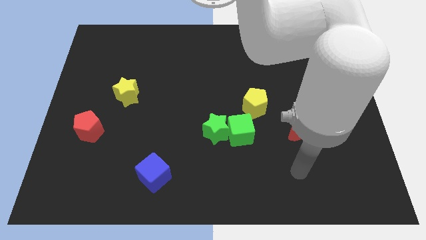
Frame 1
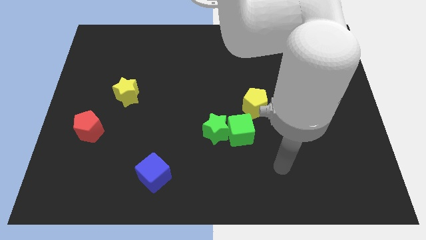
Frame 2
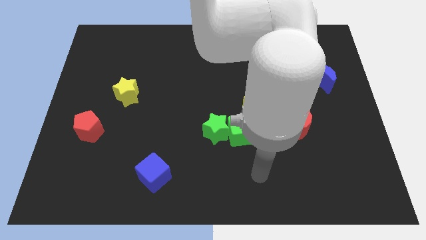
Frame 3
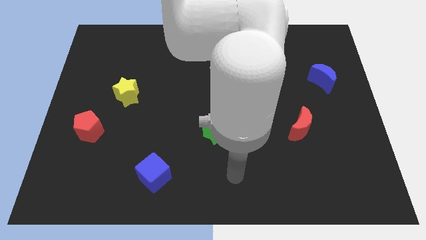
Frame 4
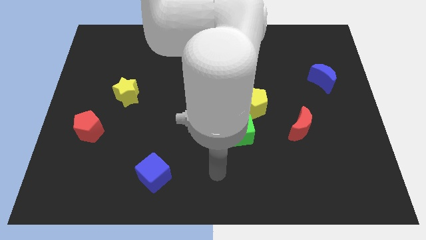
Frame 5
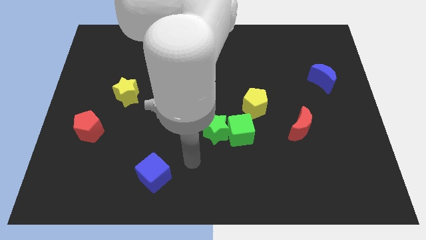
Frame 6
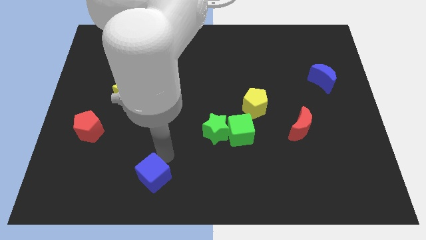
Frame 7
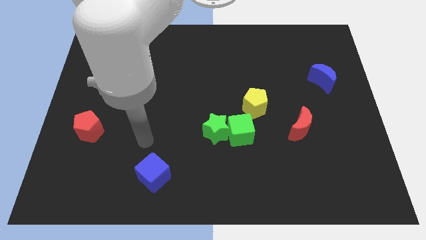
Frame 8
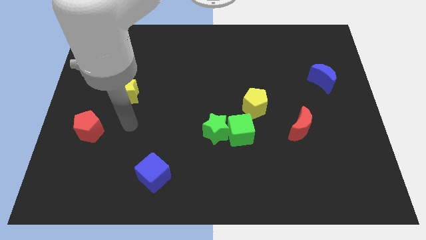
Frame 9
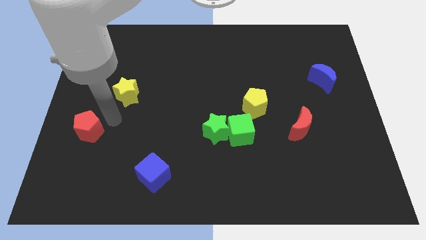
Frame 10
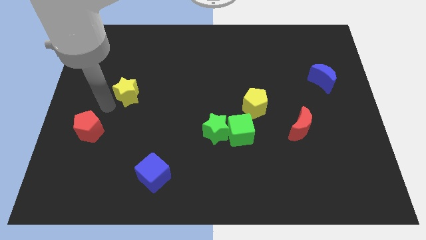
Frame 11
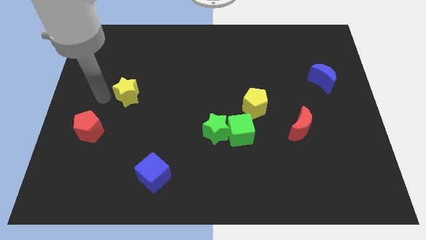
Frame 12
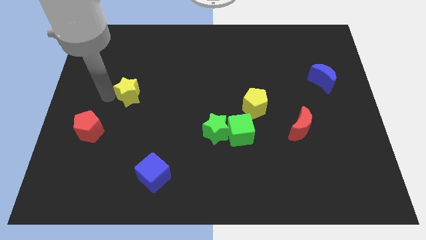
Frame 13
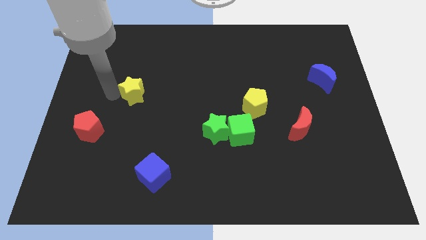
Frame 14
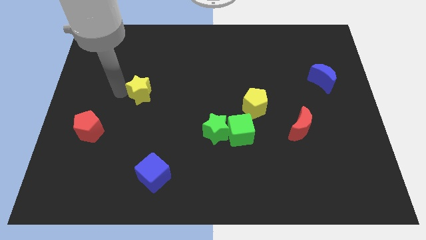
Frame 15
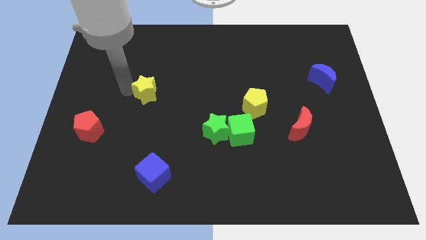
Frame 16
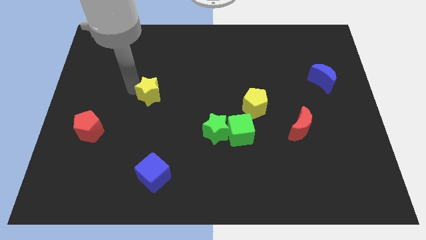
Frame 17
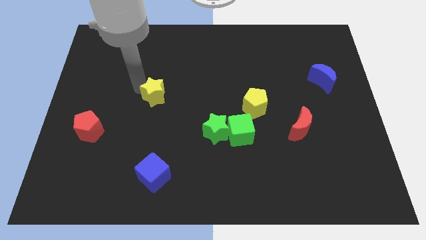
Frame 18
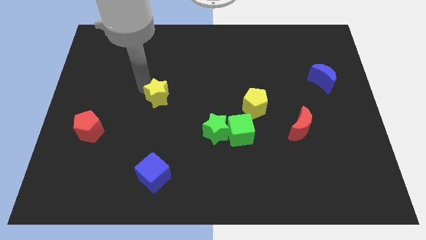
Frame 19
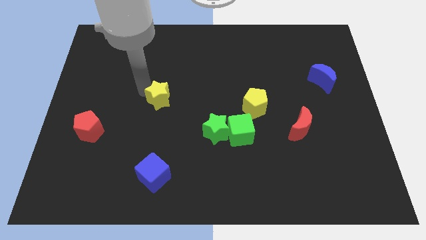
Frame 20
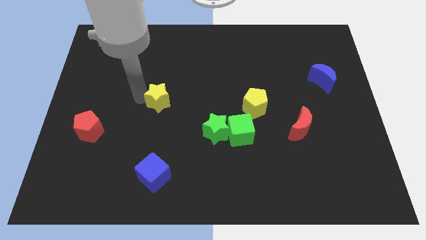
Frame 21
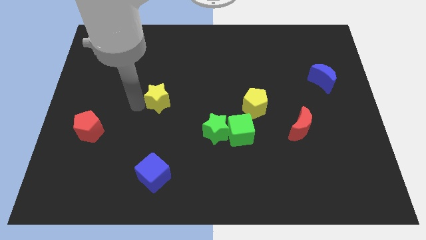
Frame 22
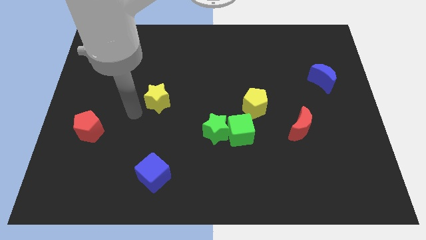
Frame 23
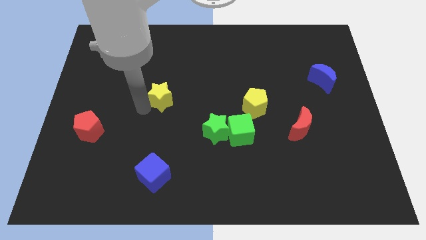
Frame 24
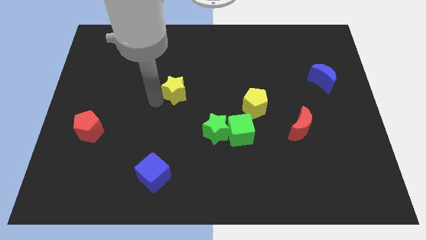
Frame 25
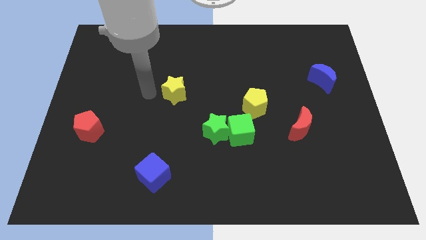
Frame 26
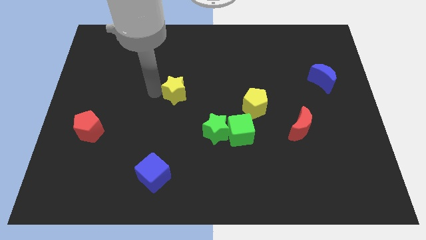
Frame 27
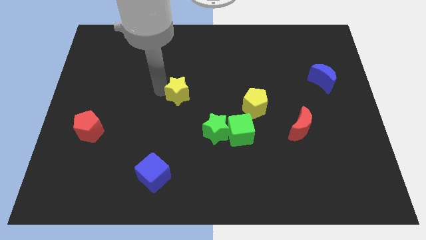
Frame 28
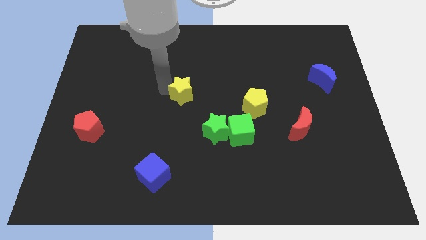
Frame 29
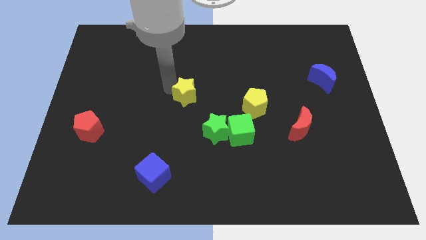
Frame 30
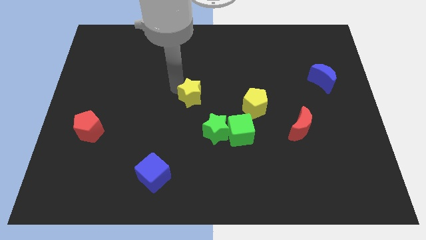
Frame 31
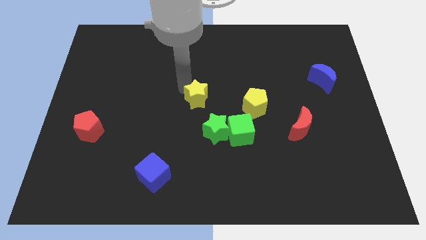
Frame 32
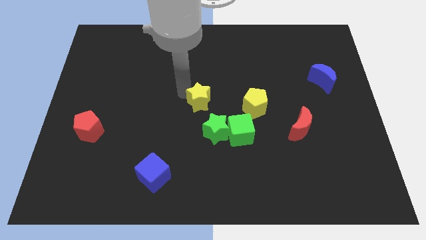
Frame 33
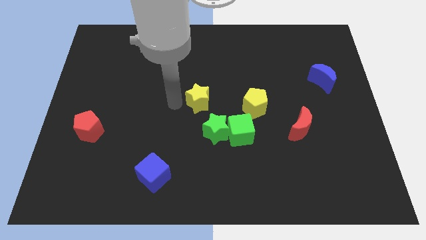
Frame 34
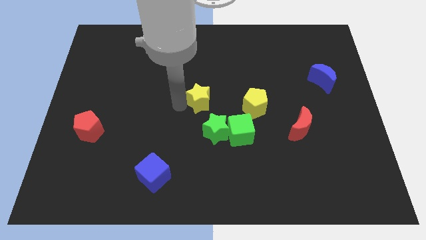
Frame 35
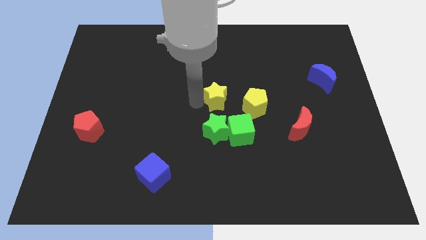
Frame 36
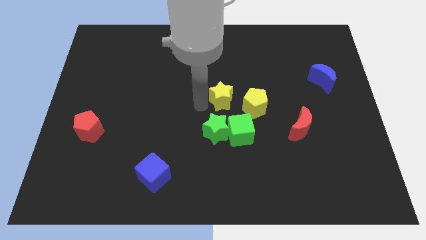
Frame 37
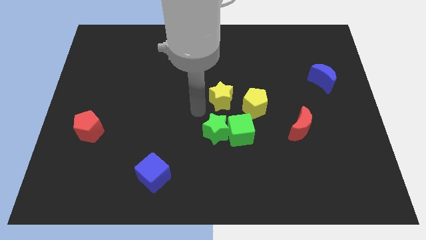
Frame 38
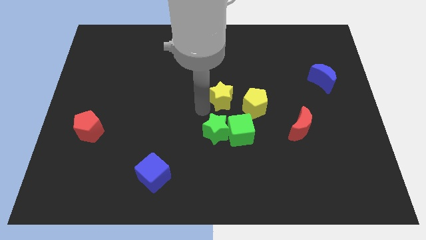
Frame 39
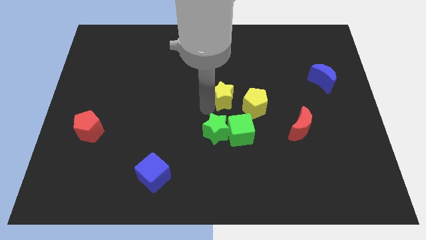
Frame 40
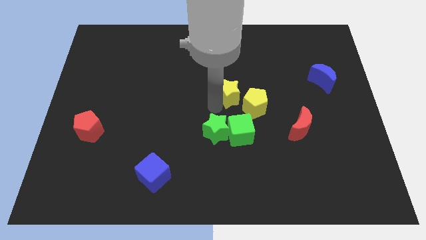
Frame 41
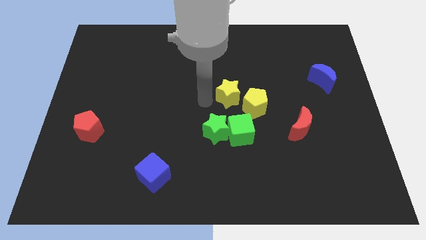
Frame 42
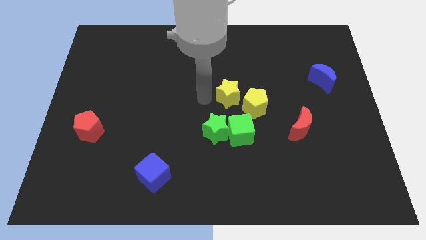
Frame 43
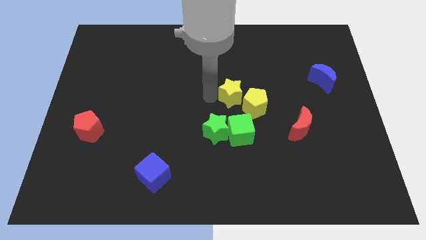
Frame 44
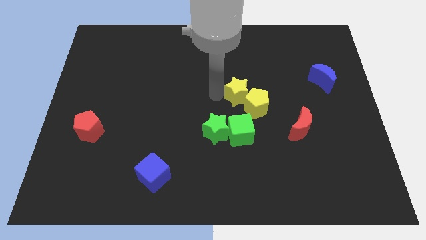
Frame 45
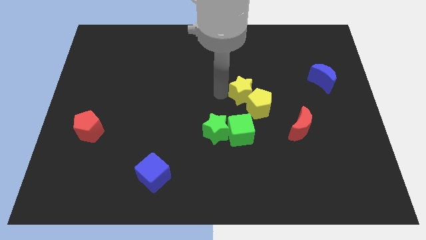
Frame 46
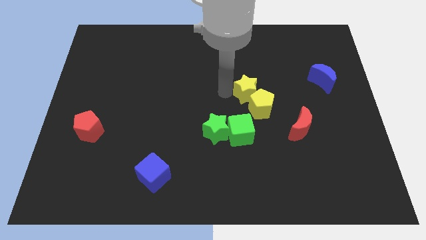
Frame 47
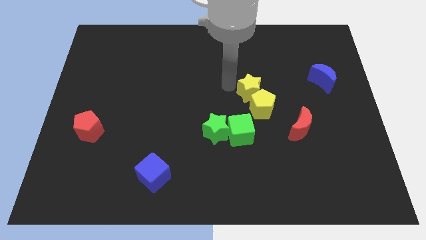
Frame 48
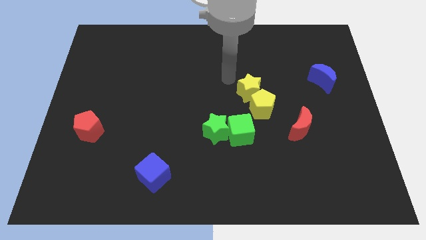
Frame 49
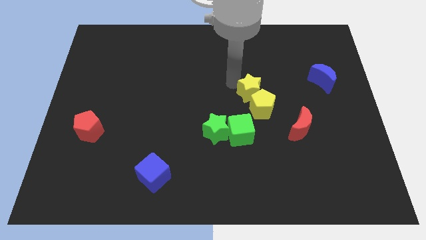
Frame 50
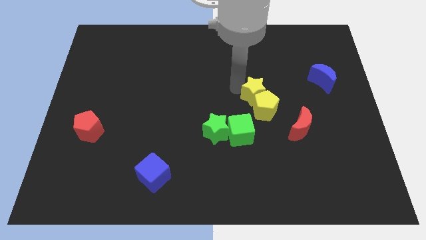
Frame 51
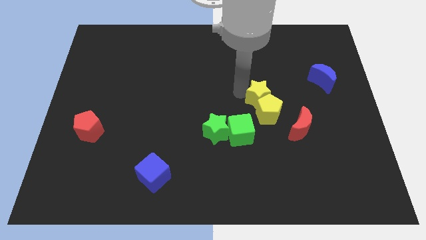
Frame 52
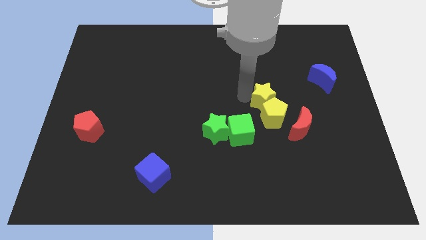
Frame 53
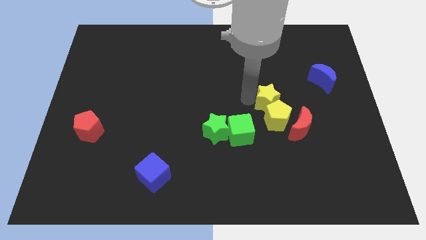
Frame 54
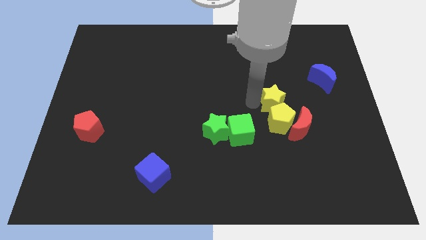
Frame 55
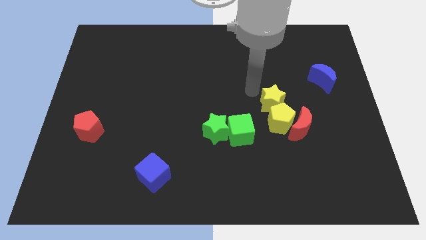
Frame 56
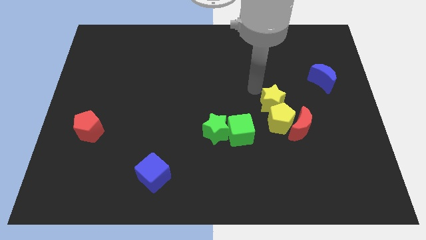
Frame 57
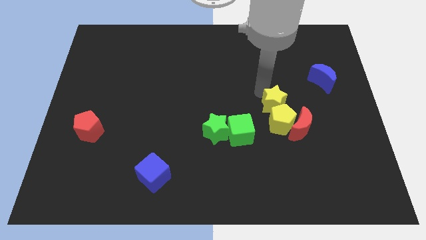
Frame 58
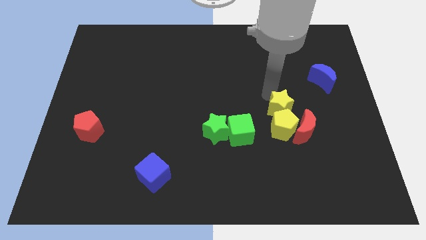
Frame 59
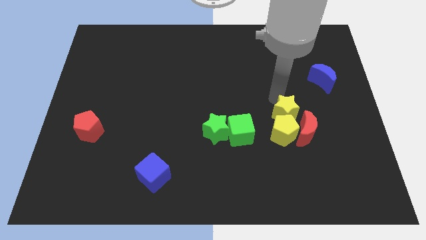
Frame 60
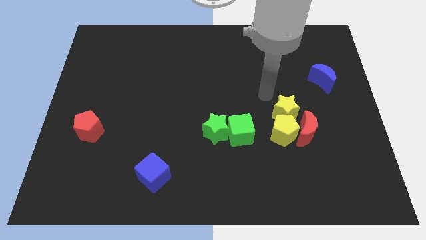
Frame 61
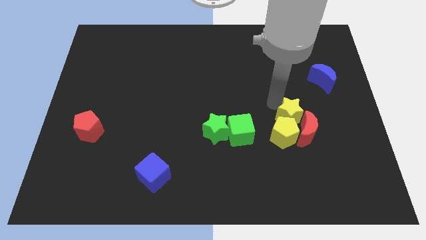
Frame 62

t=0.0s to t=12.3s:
push the yellow star to the red moon

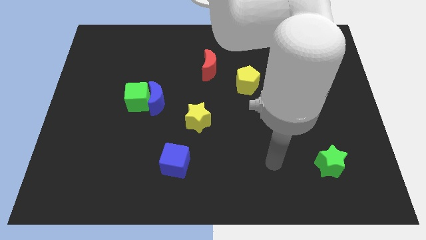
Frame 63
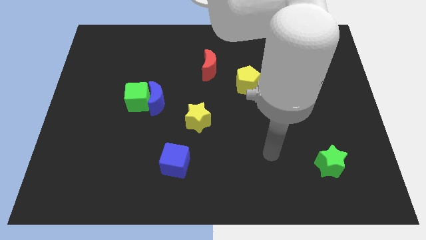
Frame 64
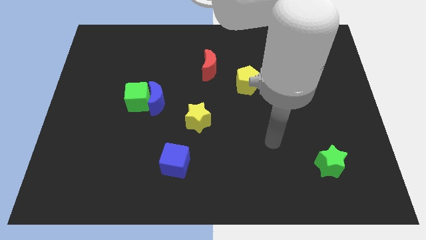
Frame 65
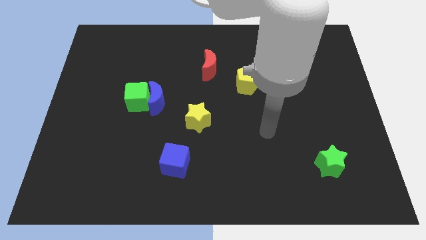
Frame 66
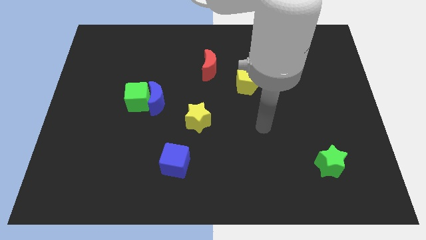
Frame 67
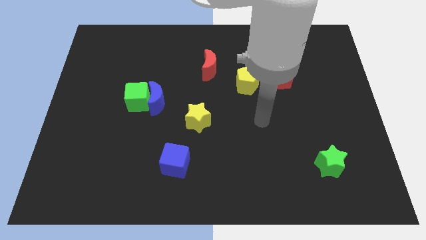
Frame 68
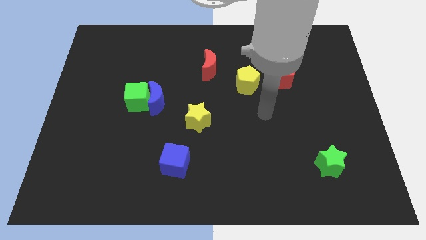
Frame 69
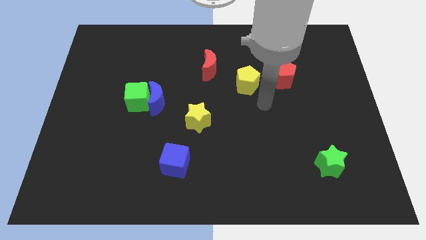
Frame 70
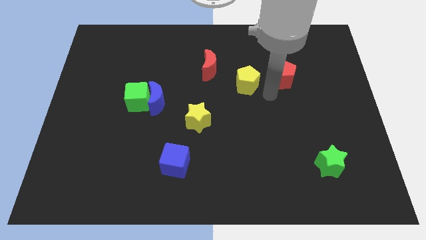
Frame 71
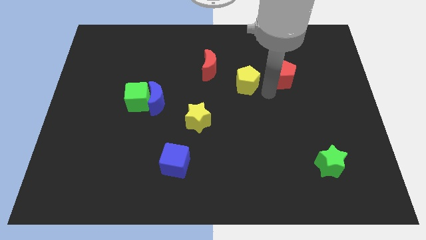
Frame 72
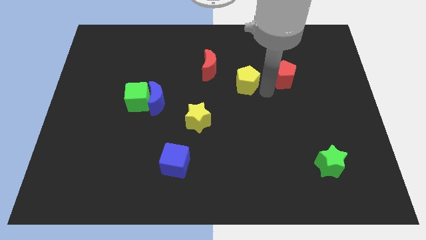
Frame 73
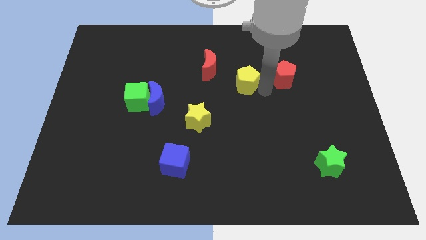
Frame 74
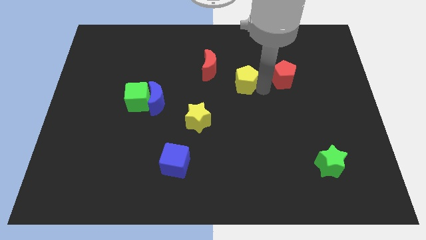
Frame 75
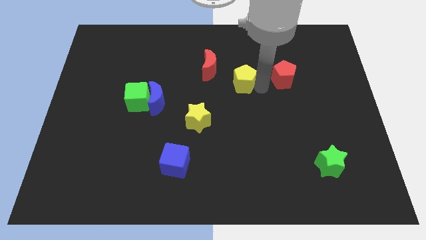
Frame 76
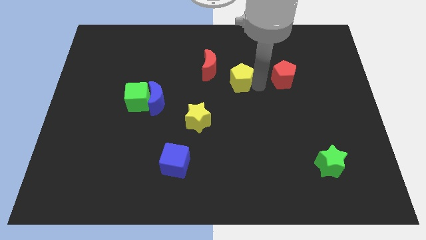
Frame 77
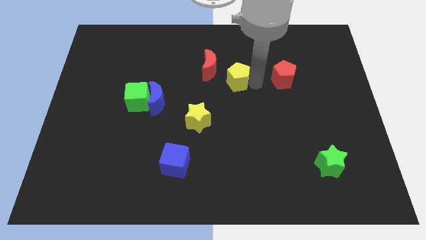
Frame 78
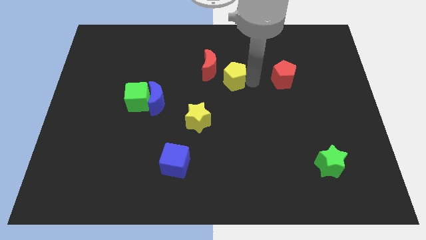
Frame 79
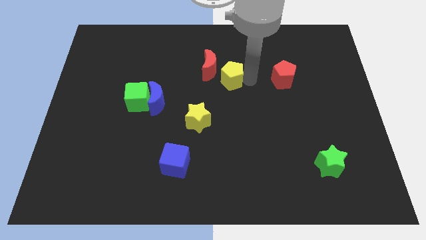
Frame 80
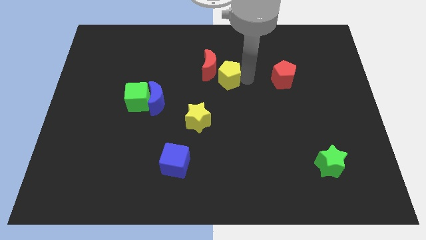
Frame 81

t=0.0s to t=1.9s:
slide the yellow pentagon towards the red moon
